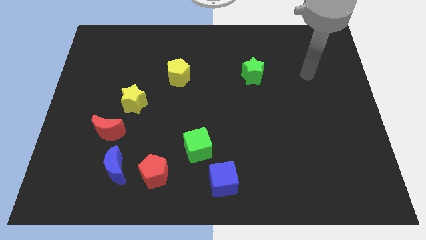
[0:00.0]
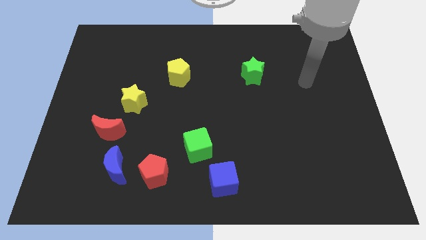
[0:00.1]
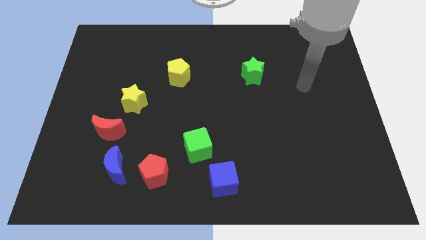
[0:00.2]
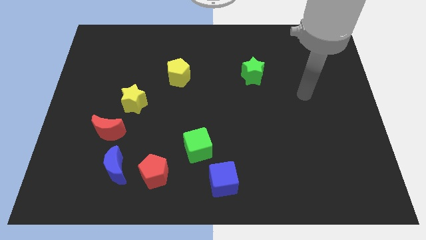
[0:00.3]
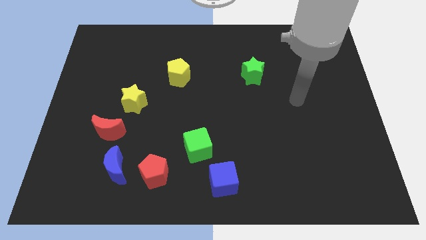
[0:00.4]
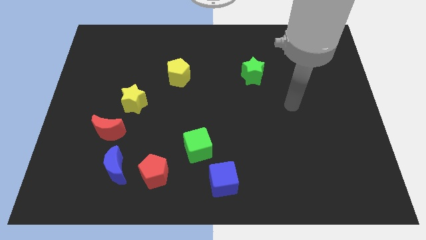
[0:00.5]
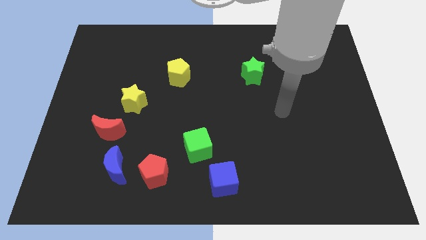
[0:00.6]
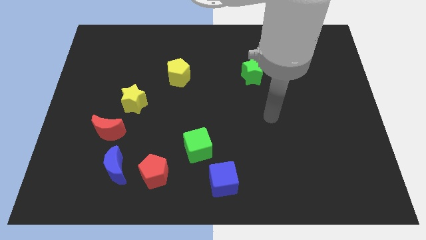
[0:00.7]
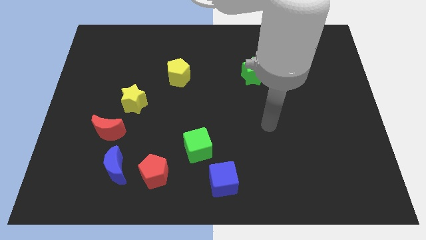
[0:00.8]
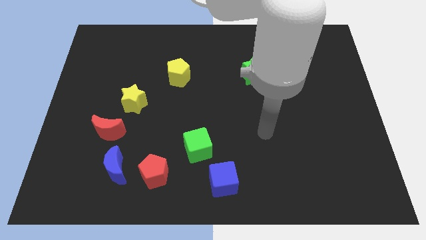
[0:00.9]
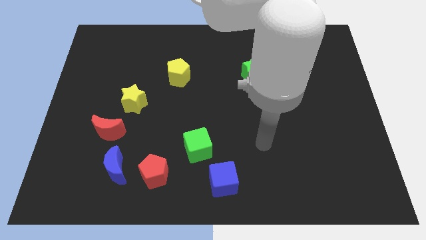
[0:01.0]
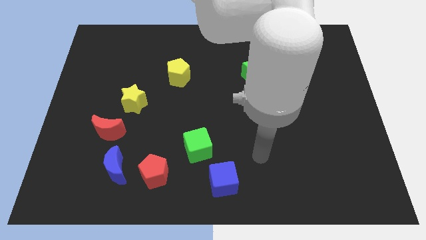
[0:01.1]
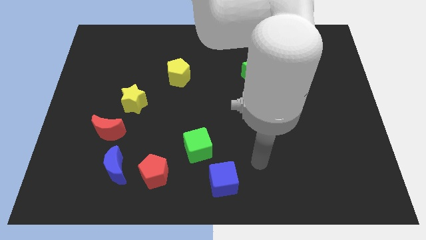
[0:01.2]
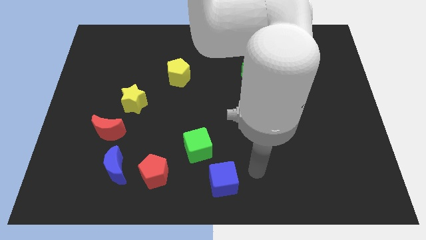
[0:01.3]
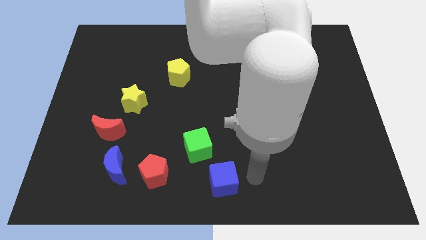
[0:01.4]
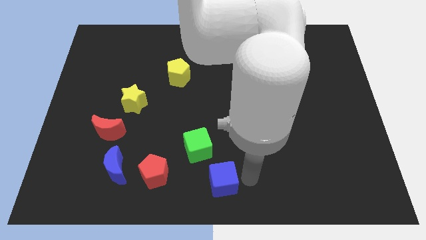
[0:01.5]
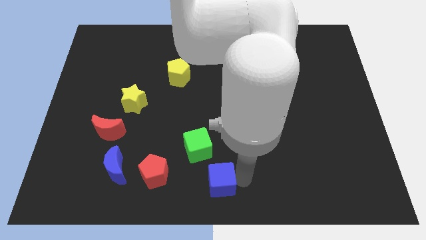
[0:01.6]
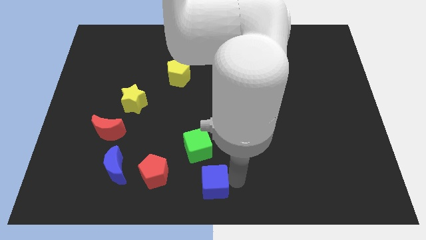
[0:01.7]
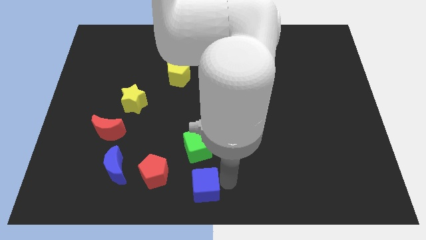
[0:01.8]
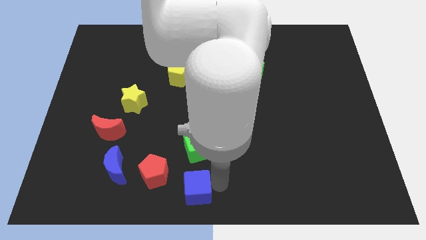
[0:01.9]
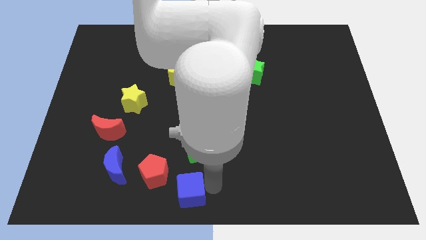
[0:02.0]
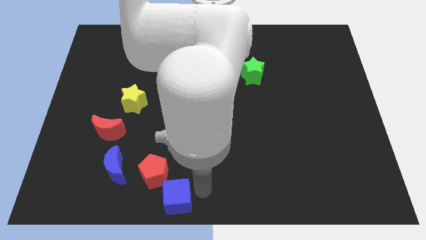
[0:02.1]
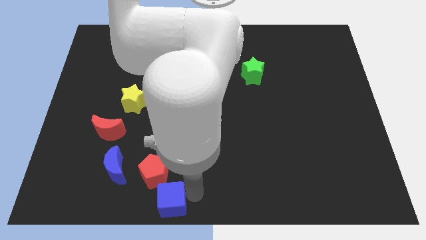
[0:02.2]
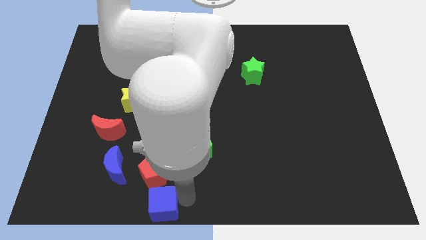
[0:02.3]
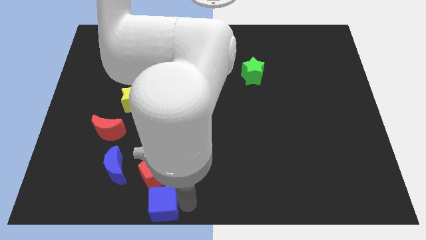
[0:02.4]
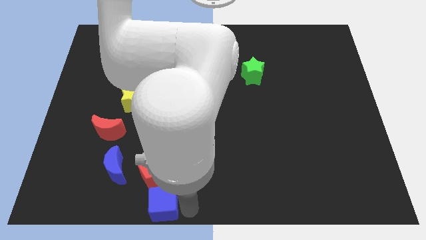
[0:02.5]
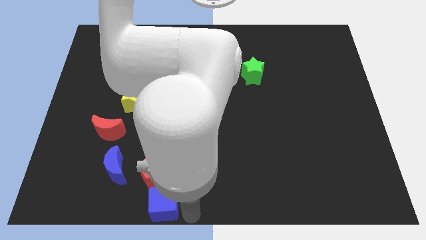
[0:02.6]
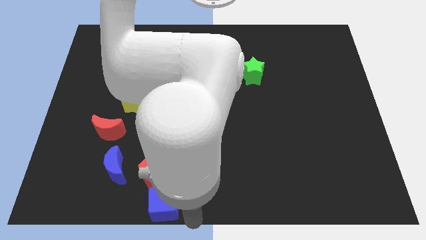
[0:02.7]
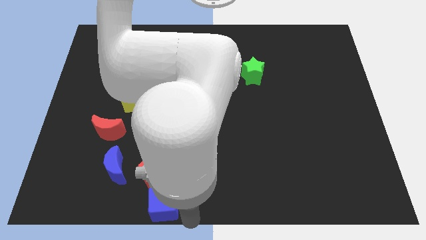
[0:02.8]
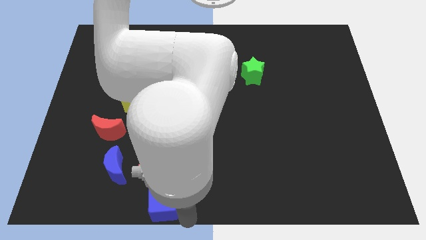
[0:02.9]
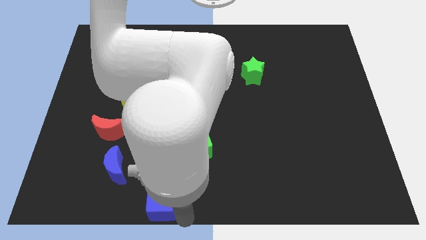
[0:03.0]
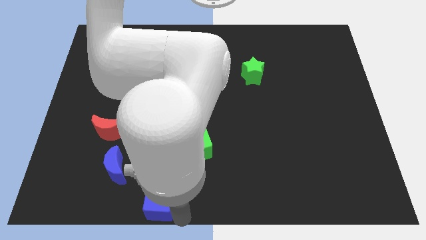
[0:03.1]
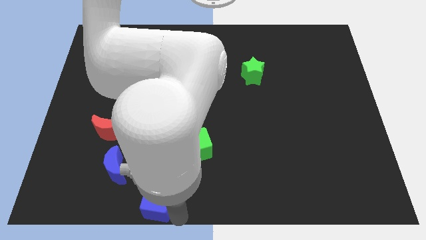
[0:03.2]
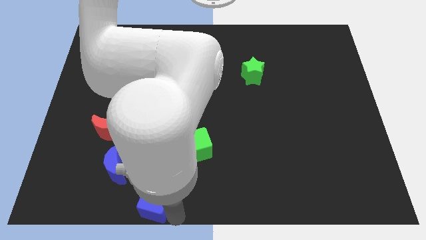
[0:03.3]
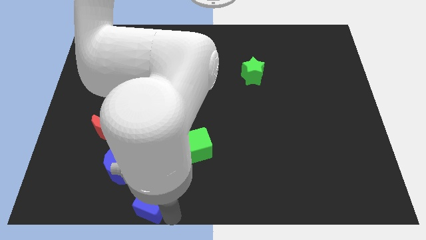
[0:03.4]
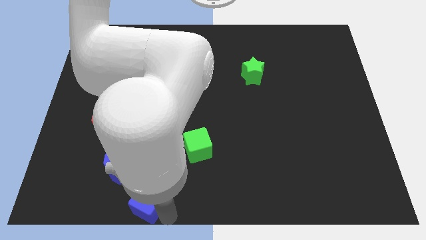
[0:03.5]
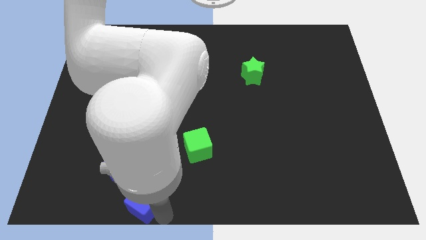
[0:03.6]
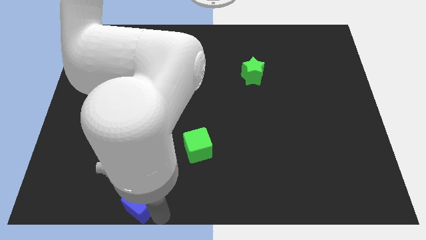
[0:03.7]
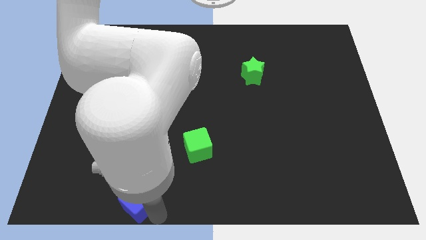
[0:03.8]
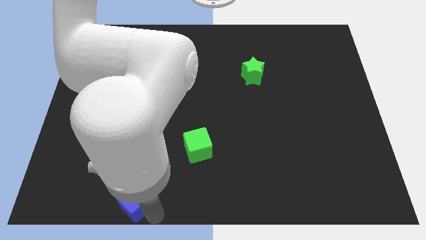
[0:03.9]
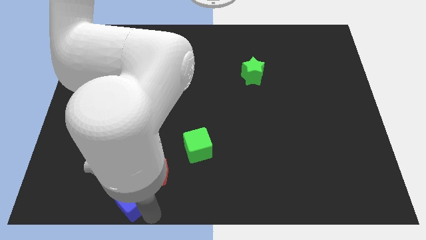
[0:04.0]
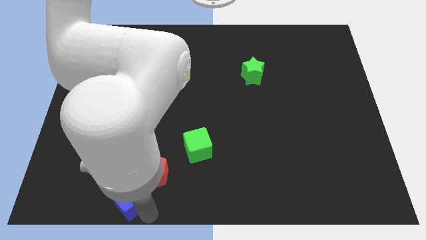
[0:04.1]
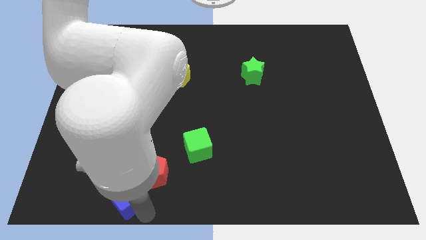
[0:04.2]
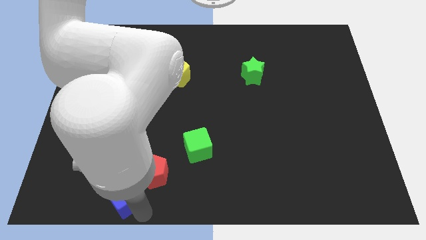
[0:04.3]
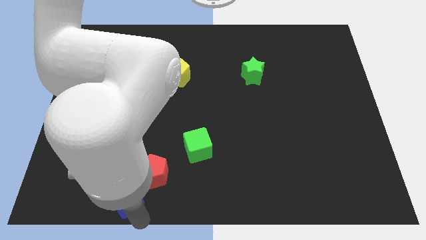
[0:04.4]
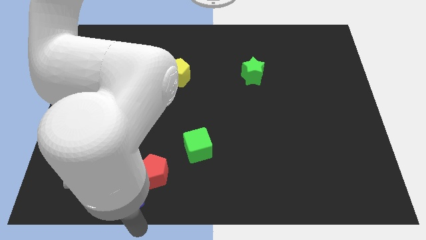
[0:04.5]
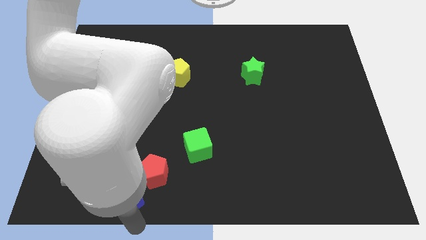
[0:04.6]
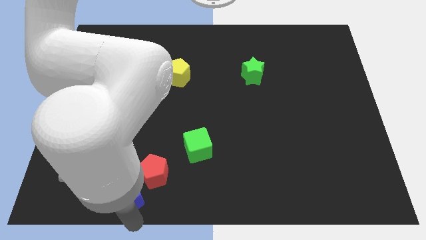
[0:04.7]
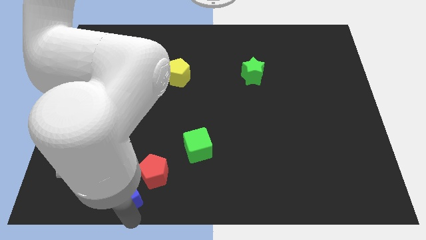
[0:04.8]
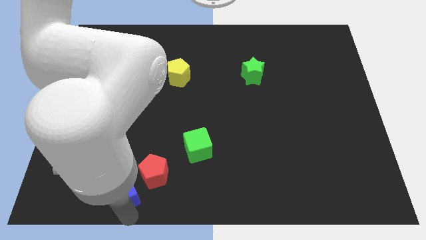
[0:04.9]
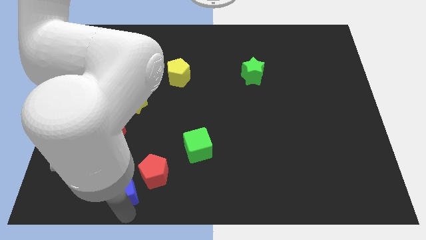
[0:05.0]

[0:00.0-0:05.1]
slide the blue cube towards the blue moon

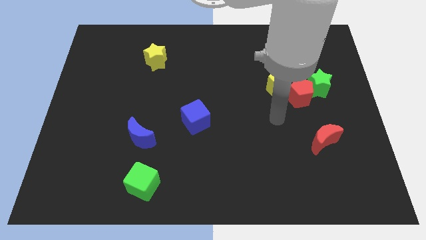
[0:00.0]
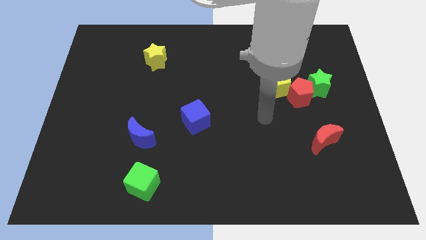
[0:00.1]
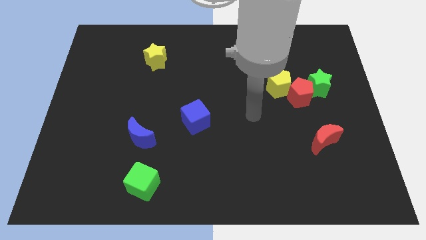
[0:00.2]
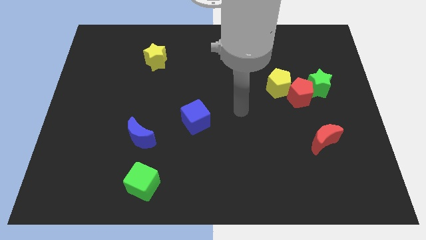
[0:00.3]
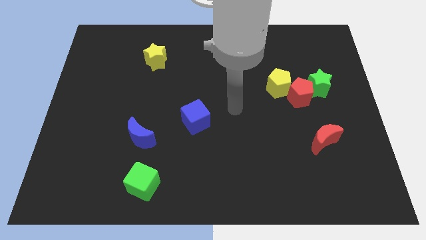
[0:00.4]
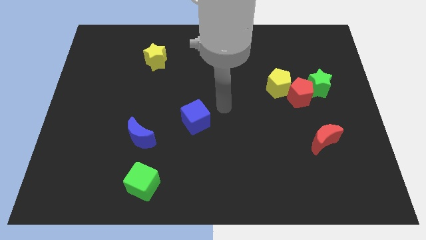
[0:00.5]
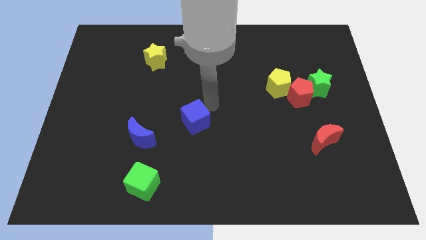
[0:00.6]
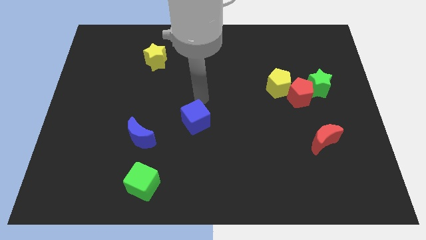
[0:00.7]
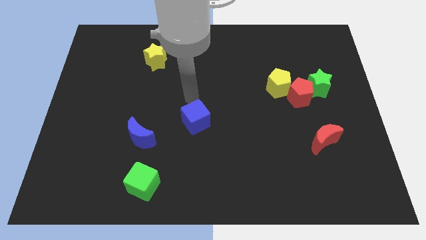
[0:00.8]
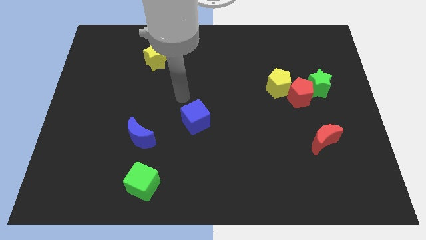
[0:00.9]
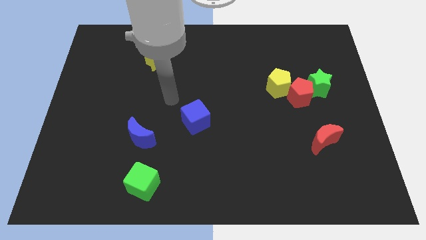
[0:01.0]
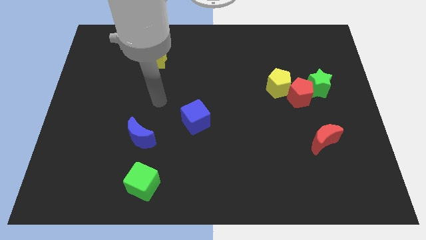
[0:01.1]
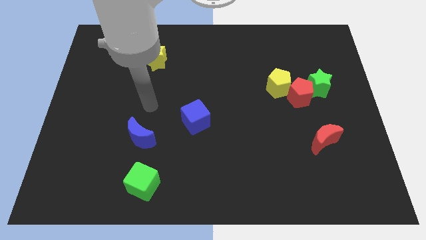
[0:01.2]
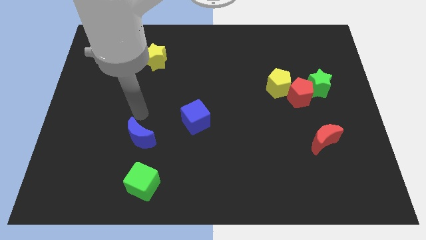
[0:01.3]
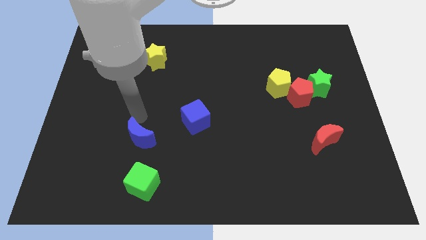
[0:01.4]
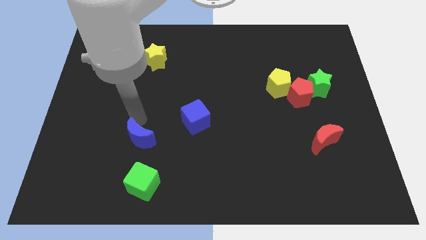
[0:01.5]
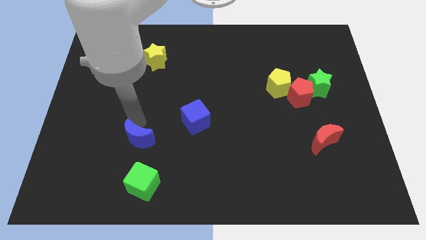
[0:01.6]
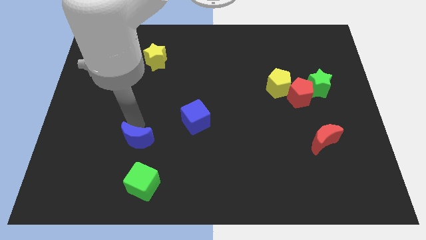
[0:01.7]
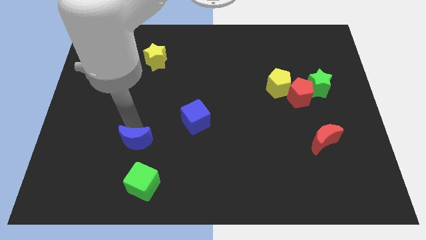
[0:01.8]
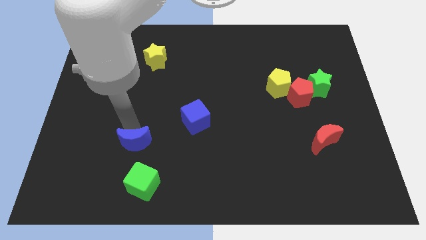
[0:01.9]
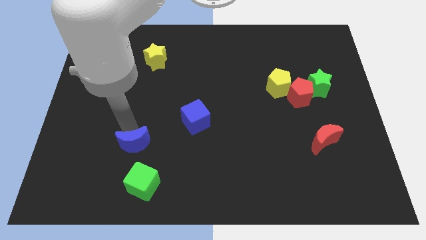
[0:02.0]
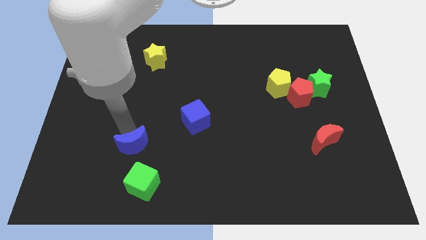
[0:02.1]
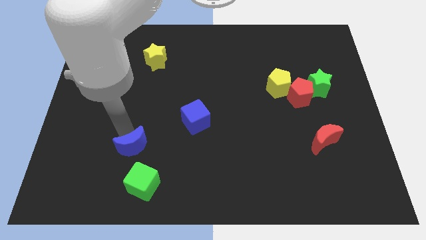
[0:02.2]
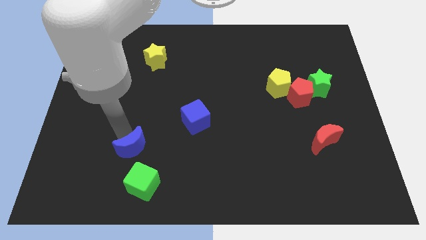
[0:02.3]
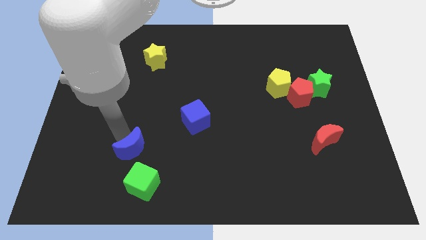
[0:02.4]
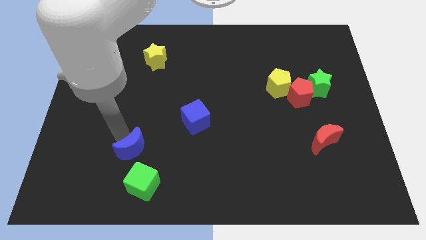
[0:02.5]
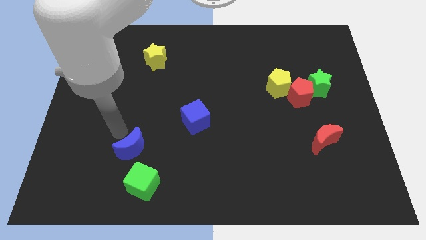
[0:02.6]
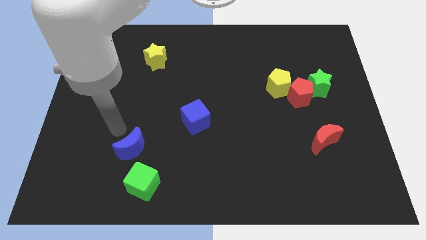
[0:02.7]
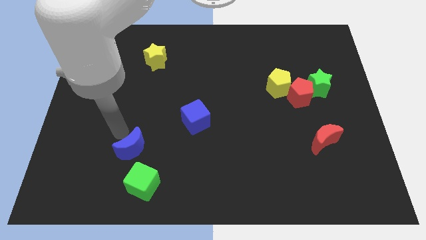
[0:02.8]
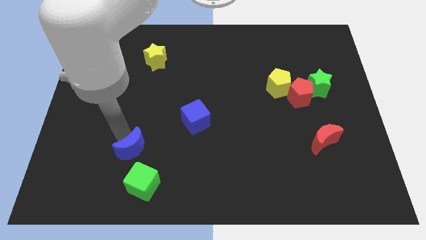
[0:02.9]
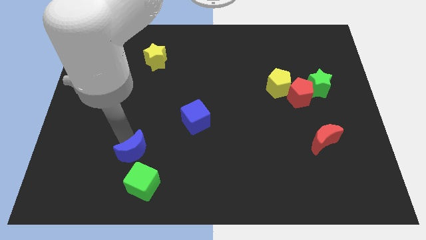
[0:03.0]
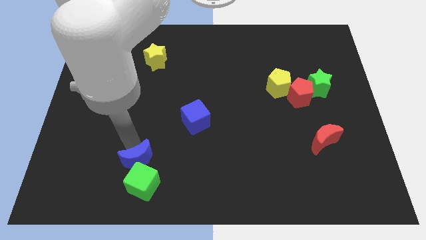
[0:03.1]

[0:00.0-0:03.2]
move the blue moon close to the green cube
